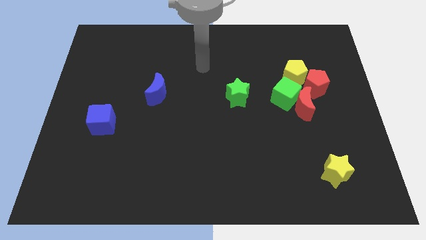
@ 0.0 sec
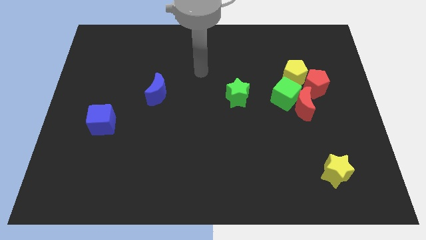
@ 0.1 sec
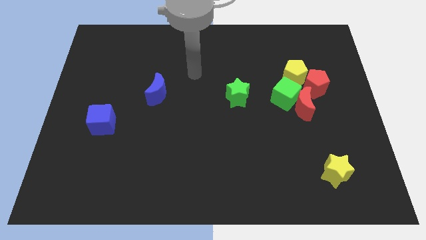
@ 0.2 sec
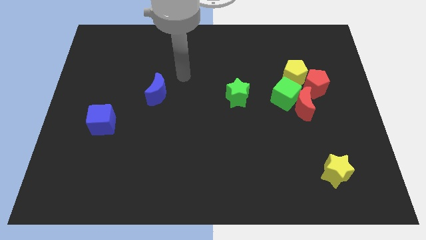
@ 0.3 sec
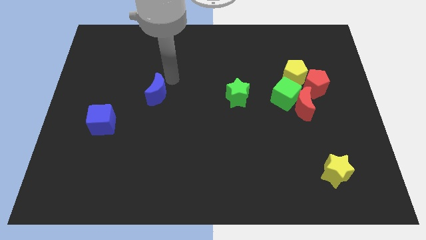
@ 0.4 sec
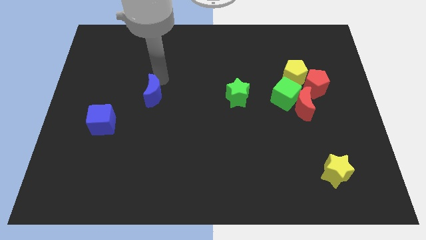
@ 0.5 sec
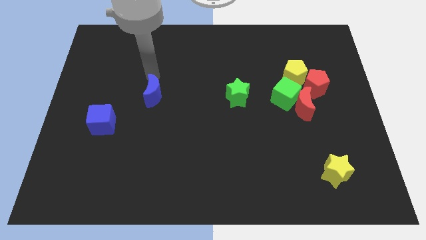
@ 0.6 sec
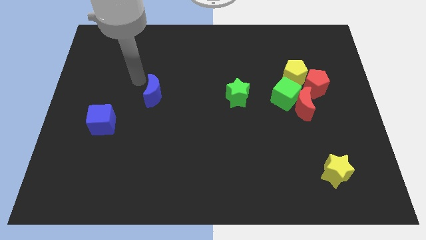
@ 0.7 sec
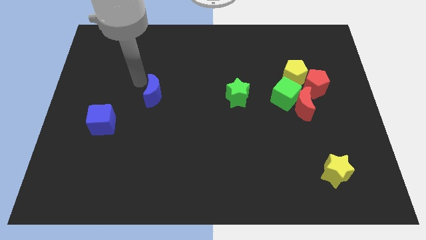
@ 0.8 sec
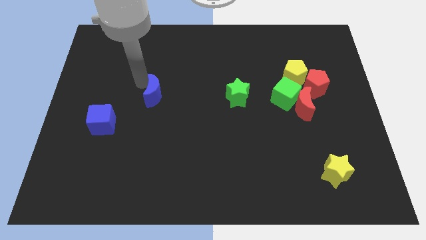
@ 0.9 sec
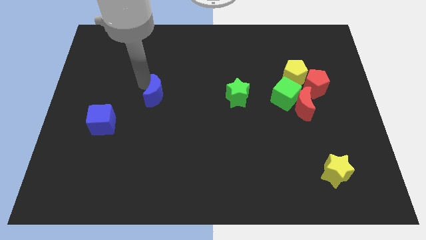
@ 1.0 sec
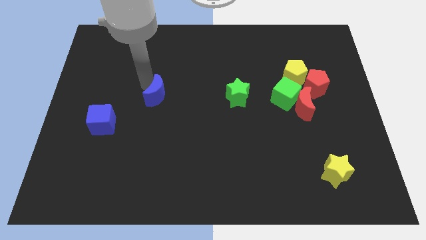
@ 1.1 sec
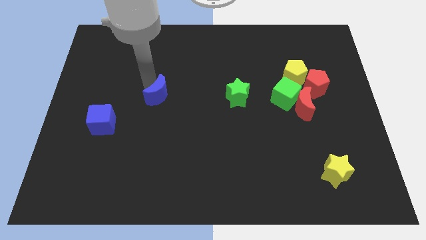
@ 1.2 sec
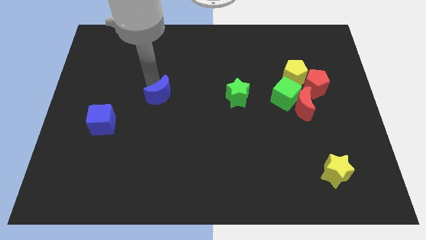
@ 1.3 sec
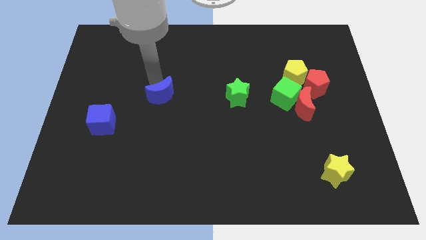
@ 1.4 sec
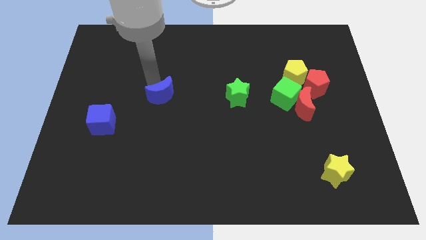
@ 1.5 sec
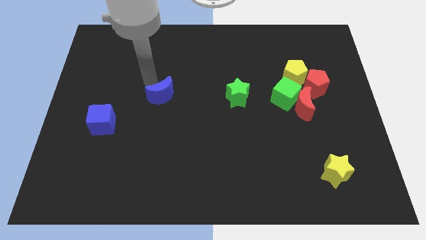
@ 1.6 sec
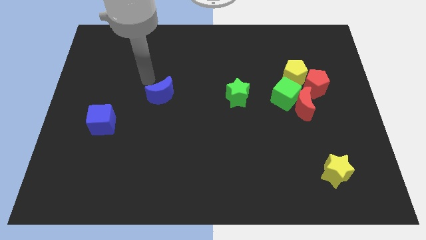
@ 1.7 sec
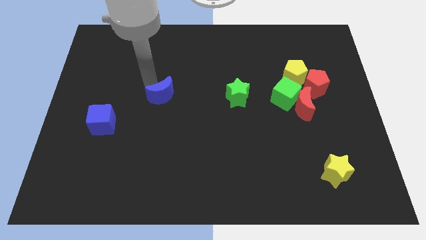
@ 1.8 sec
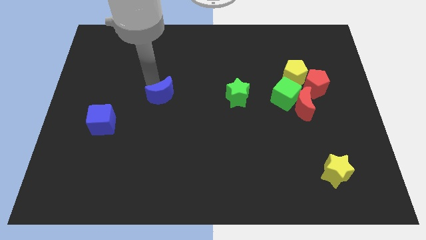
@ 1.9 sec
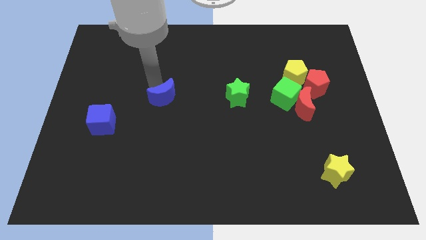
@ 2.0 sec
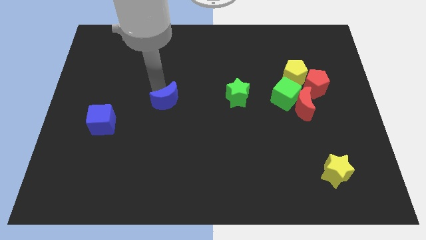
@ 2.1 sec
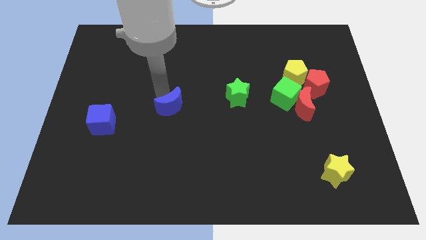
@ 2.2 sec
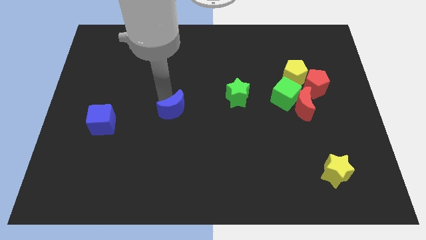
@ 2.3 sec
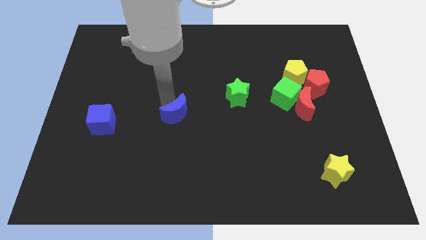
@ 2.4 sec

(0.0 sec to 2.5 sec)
push the blue moon somewhat downwards and right

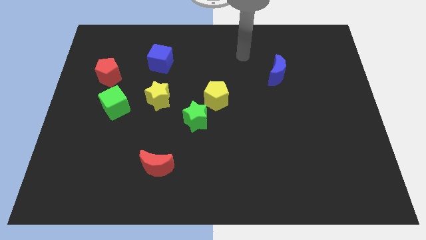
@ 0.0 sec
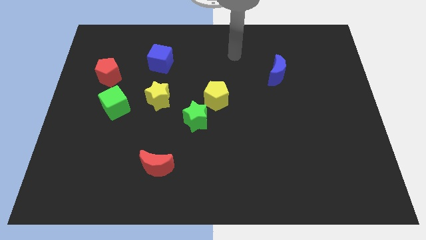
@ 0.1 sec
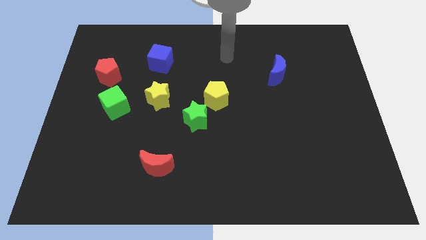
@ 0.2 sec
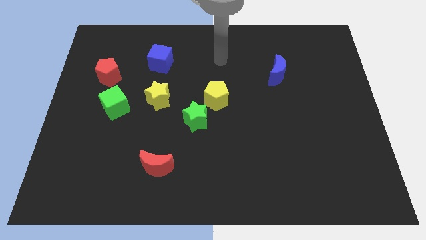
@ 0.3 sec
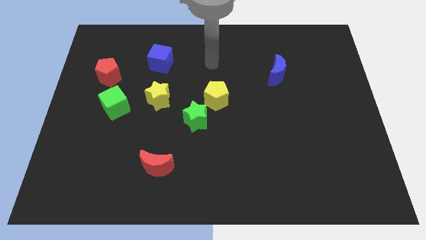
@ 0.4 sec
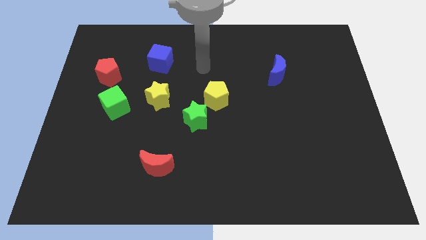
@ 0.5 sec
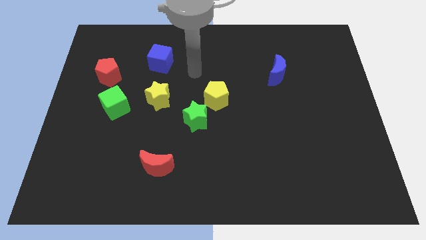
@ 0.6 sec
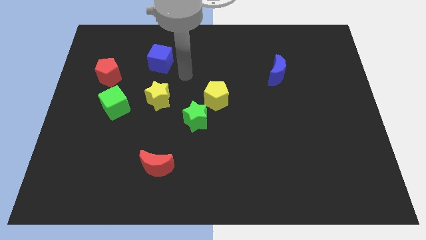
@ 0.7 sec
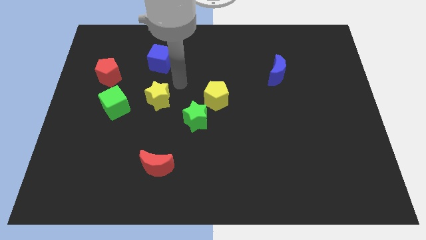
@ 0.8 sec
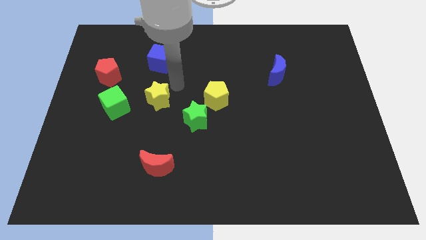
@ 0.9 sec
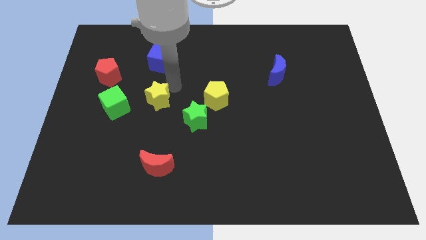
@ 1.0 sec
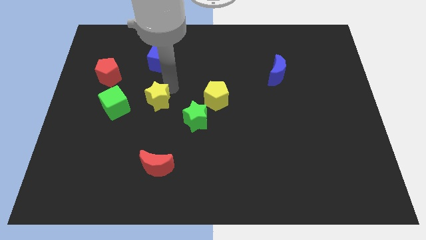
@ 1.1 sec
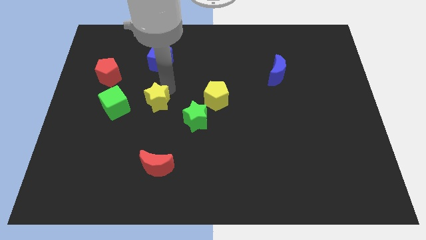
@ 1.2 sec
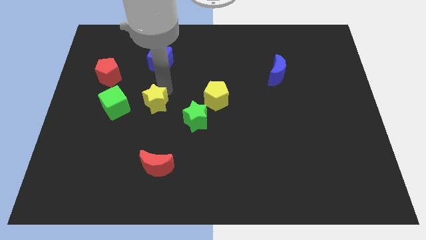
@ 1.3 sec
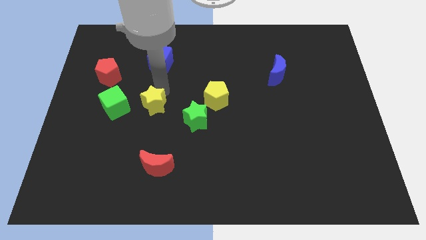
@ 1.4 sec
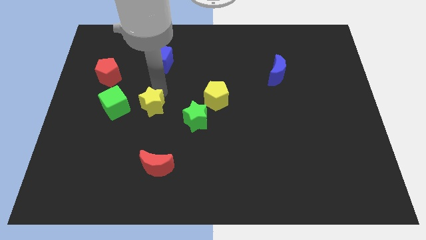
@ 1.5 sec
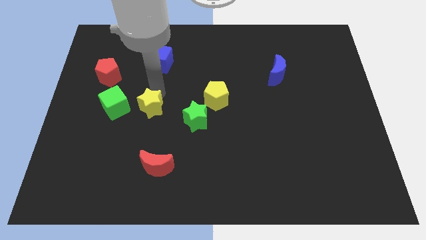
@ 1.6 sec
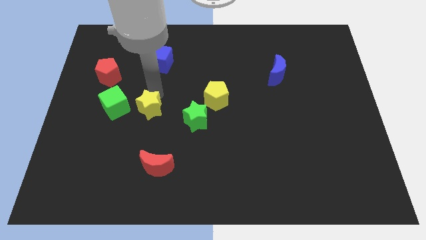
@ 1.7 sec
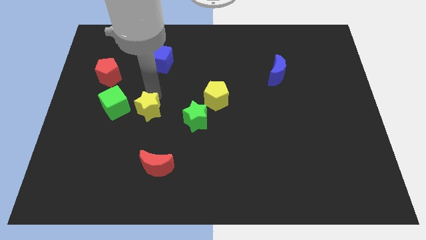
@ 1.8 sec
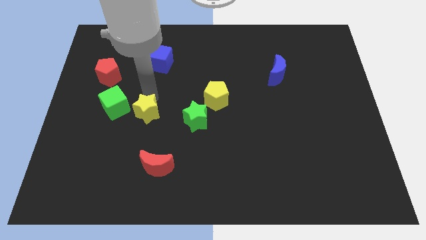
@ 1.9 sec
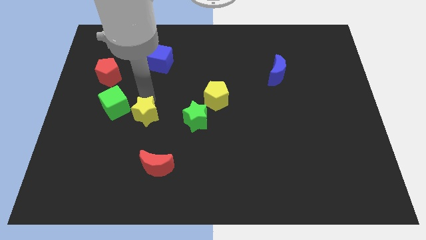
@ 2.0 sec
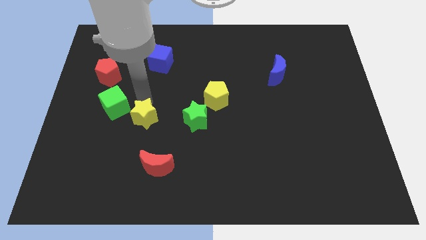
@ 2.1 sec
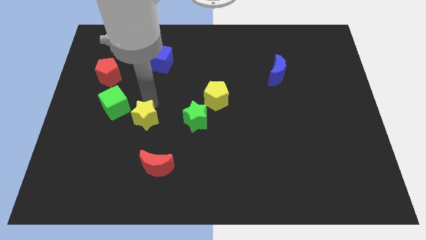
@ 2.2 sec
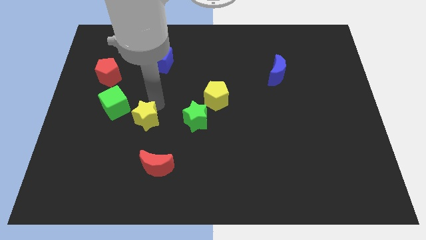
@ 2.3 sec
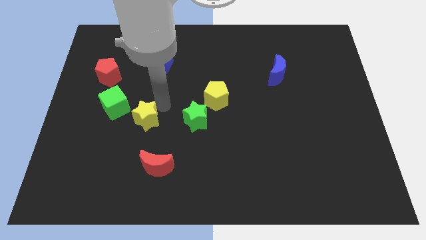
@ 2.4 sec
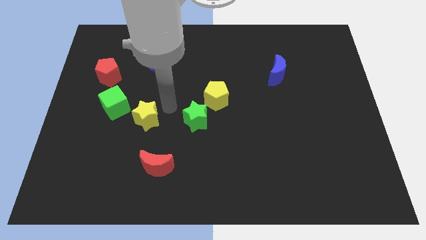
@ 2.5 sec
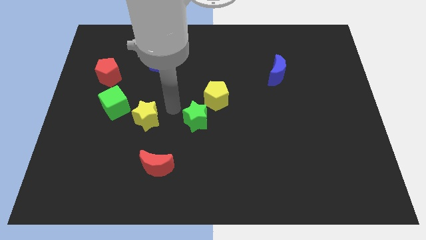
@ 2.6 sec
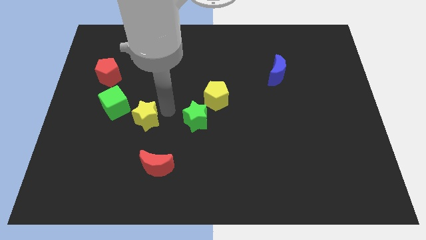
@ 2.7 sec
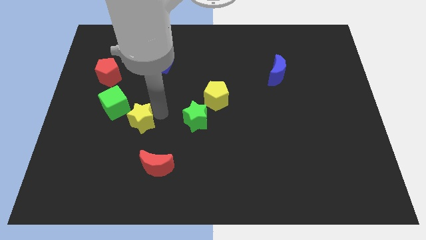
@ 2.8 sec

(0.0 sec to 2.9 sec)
slightly push the yellow star down and then left

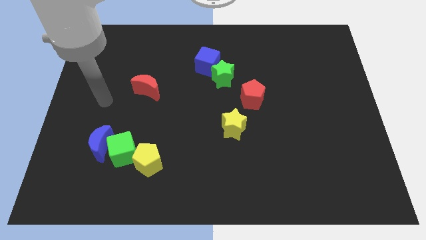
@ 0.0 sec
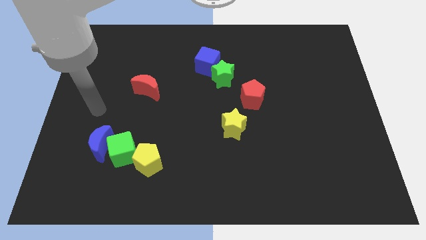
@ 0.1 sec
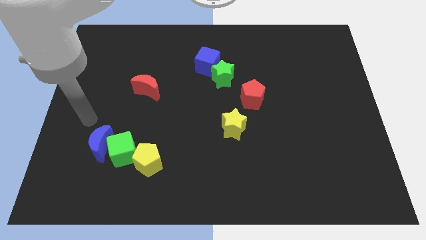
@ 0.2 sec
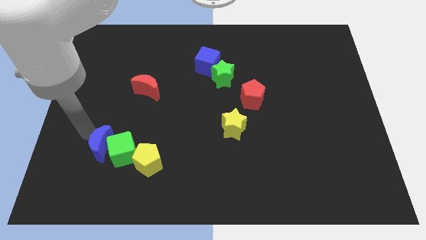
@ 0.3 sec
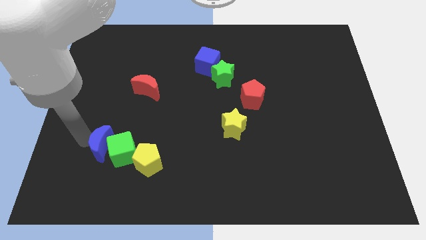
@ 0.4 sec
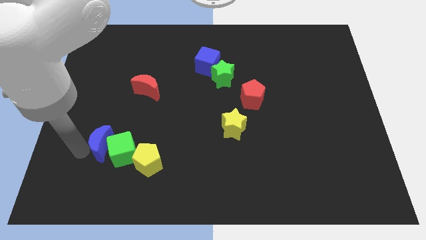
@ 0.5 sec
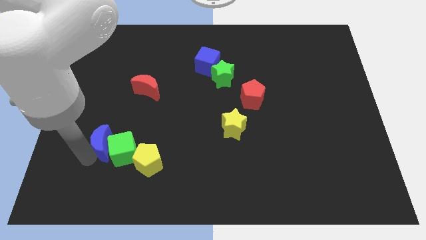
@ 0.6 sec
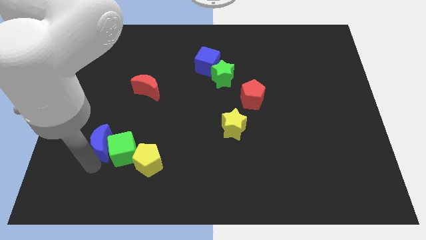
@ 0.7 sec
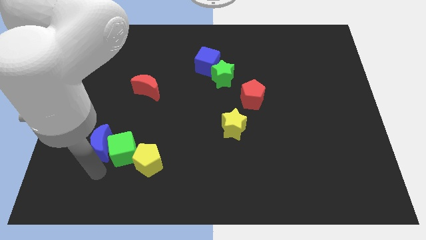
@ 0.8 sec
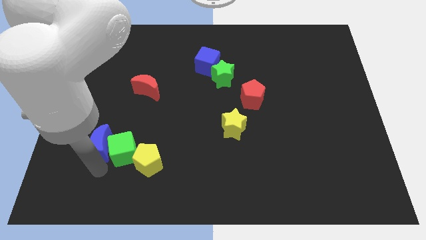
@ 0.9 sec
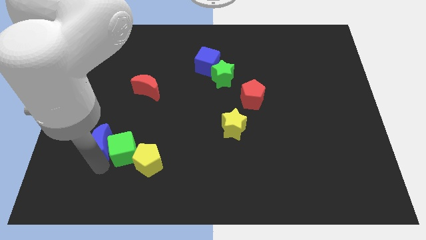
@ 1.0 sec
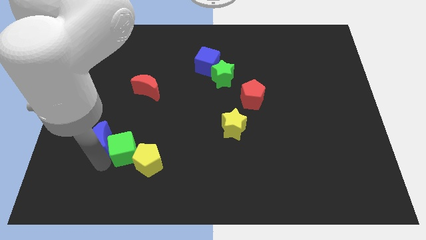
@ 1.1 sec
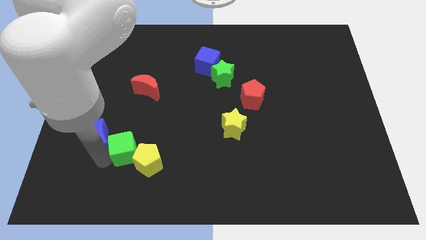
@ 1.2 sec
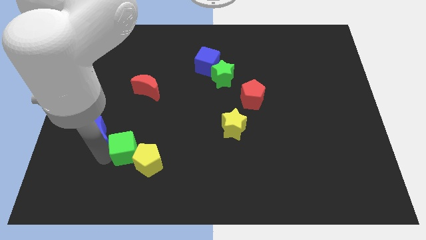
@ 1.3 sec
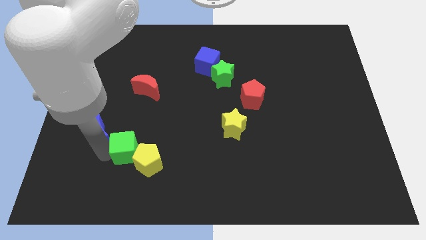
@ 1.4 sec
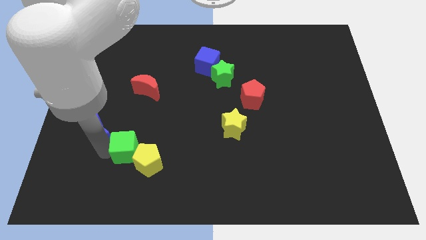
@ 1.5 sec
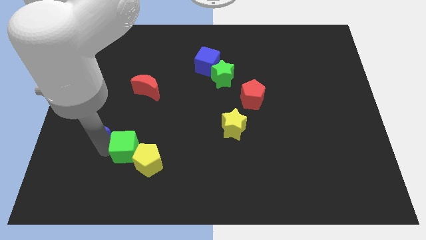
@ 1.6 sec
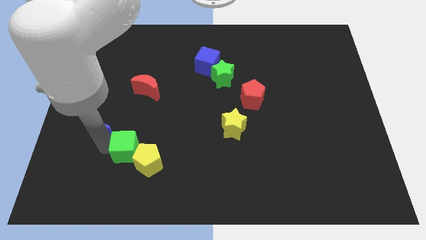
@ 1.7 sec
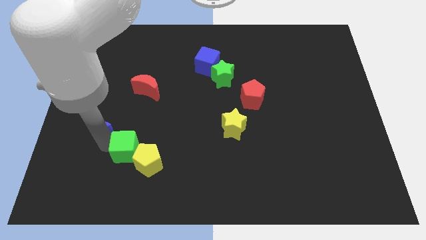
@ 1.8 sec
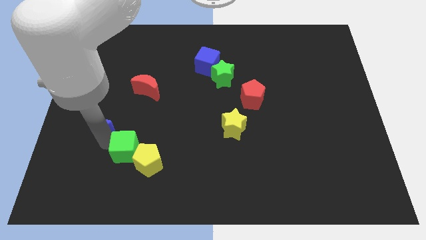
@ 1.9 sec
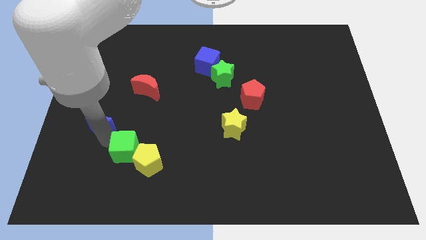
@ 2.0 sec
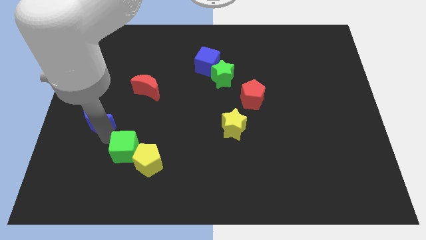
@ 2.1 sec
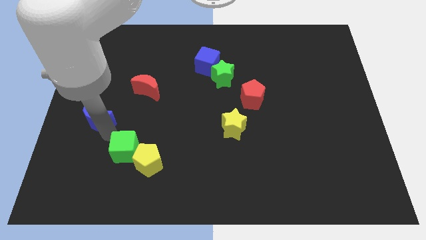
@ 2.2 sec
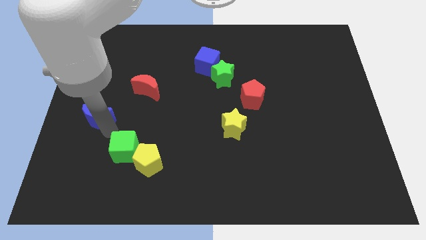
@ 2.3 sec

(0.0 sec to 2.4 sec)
slightly slide the blue moon upwards
